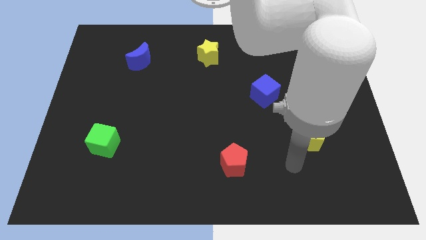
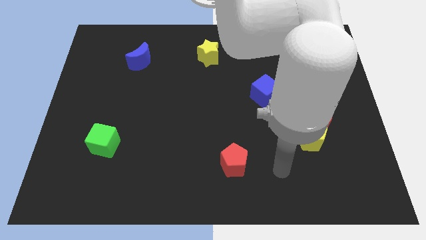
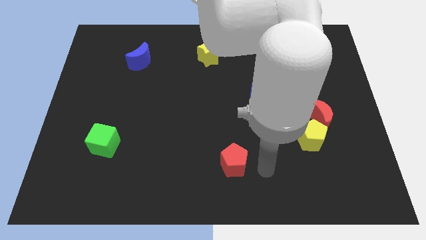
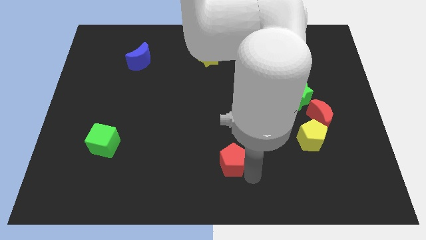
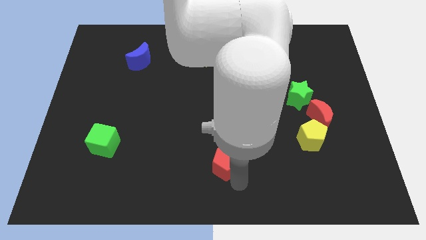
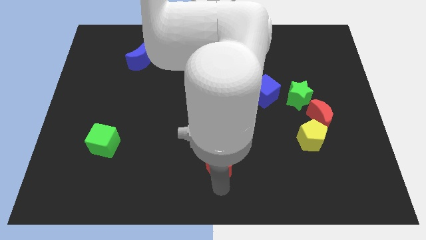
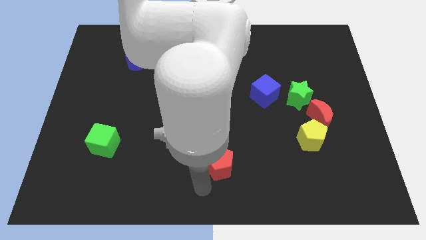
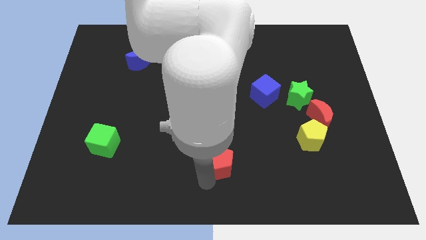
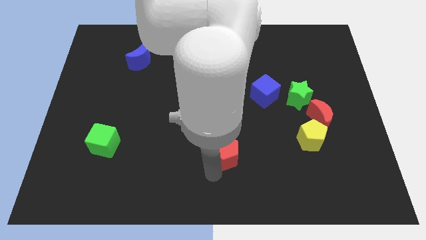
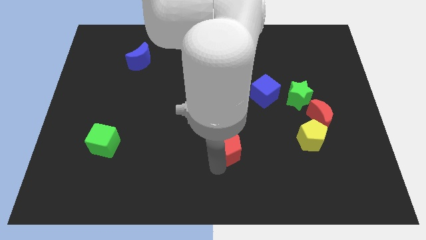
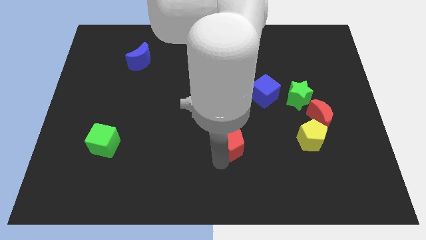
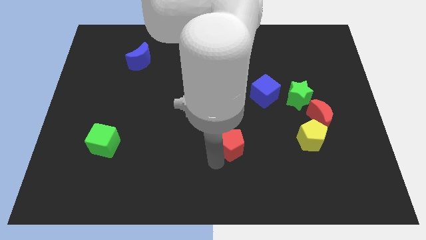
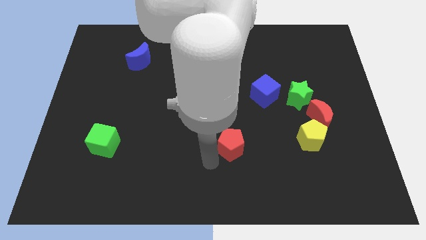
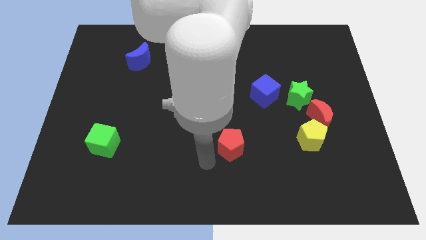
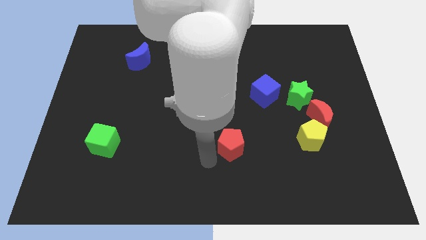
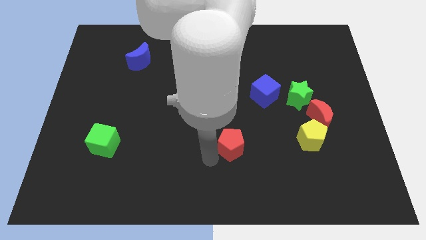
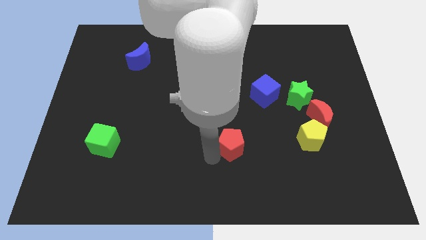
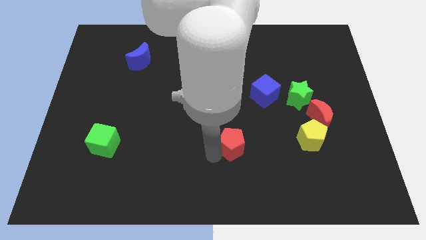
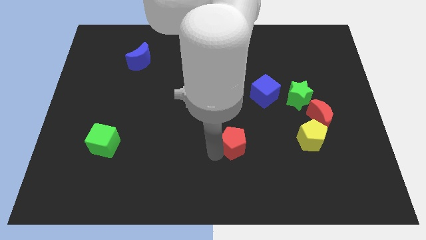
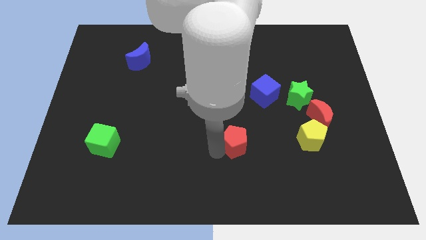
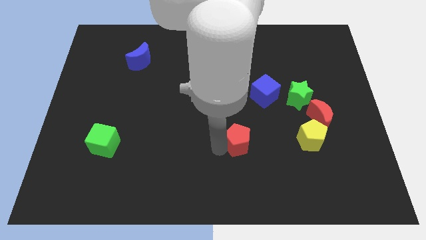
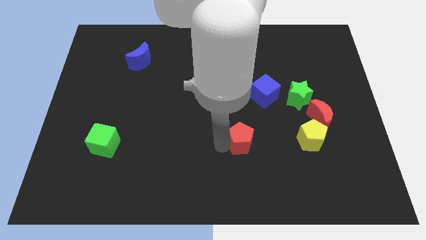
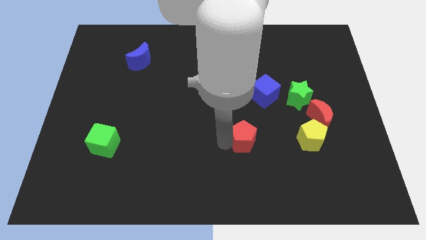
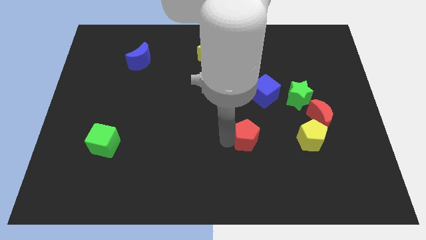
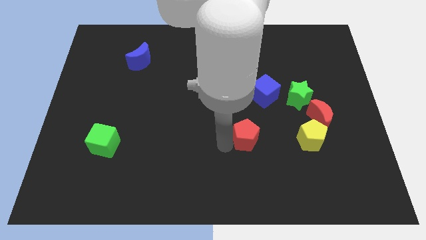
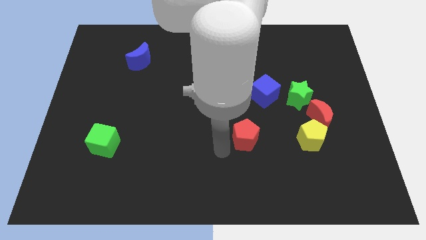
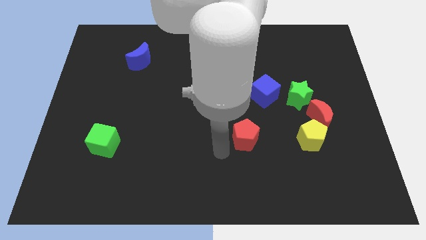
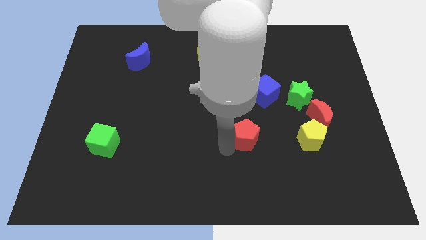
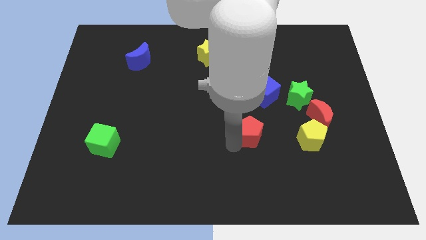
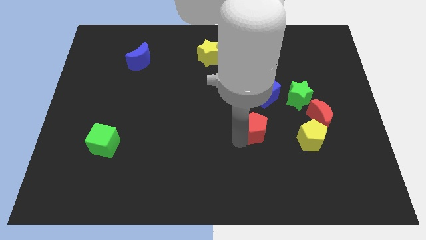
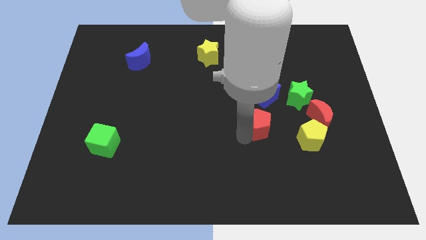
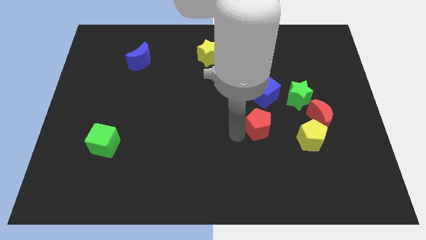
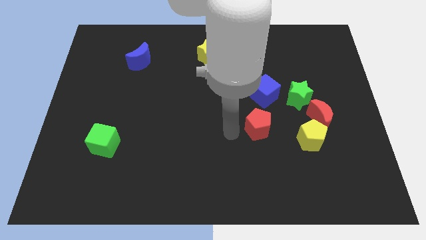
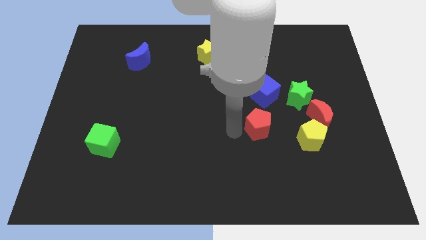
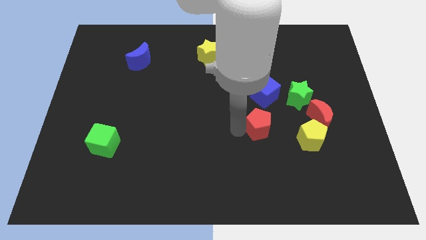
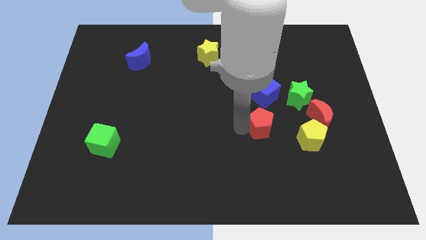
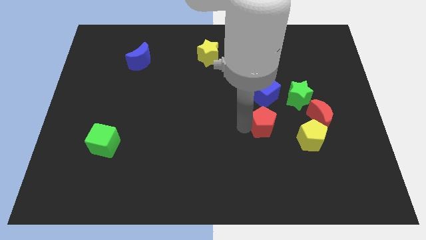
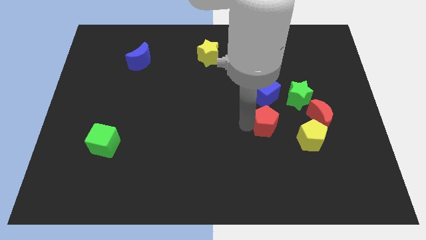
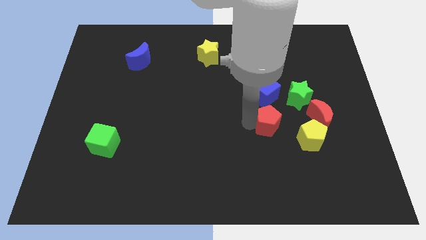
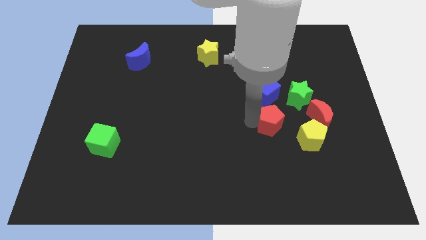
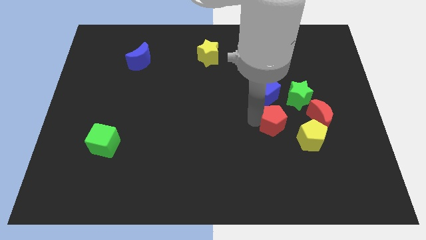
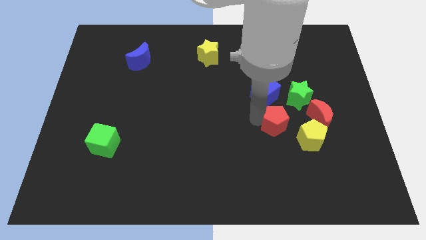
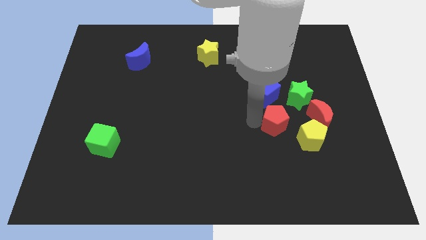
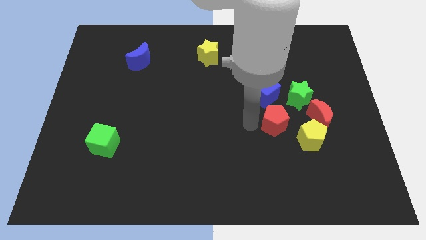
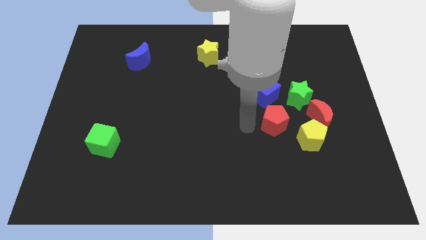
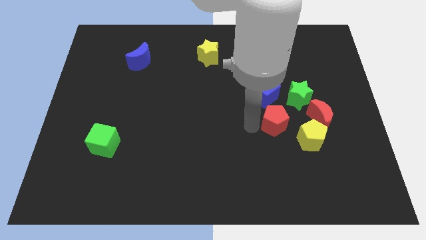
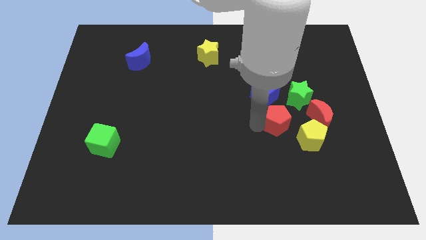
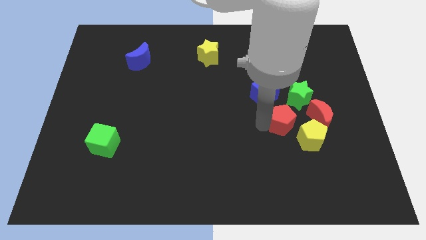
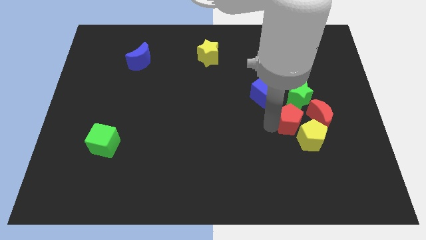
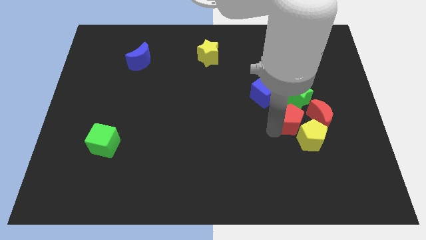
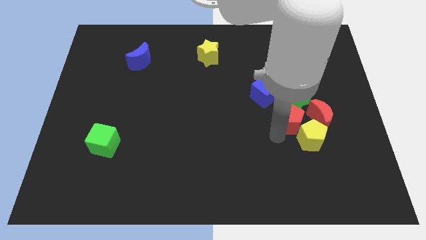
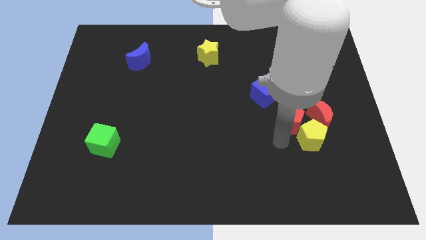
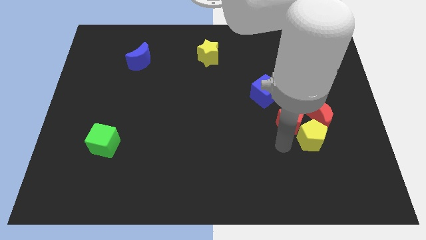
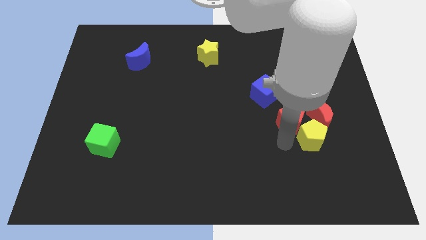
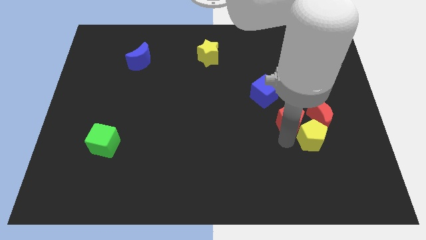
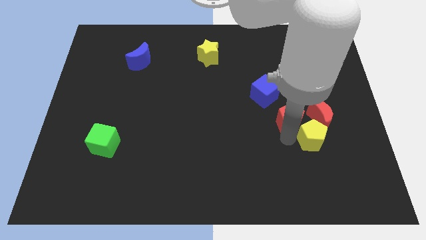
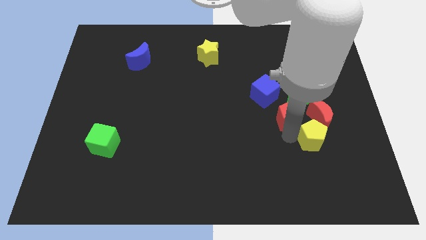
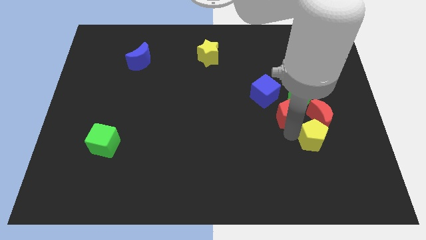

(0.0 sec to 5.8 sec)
push the red pentagon to the top left side of the red moon

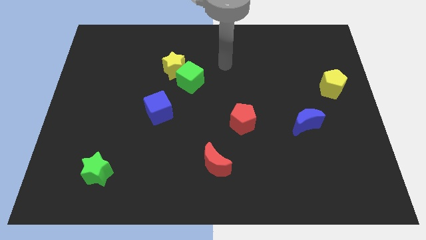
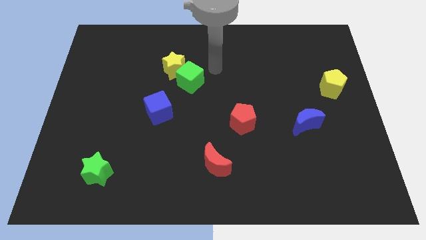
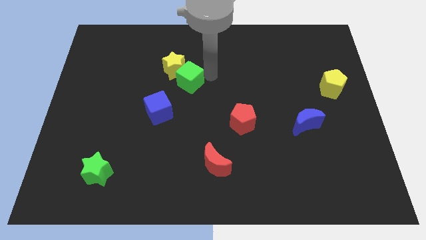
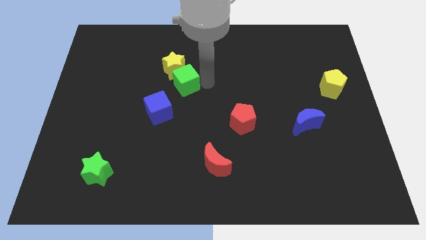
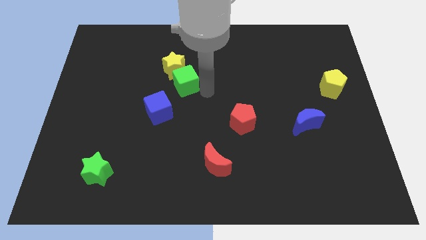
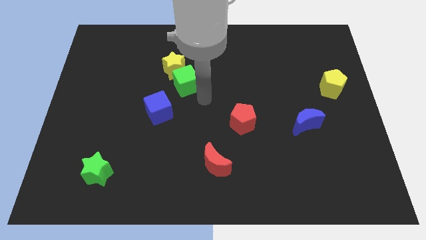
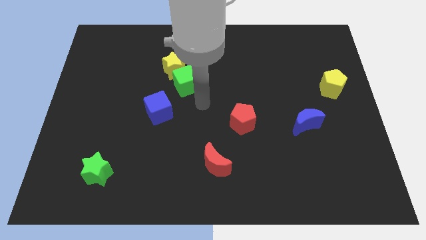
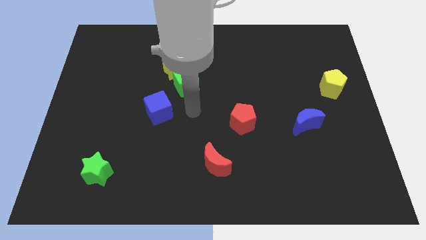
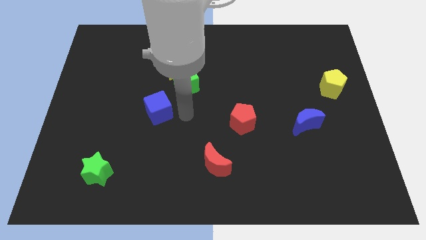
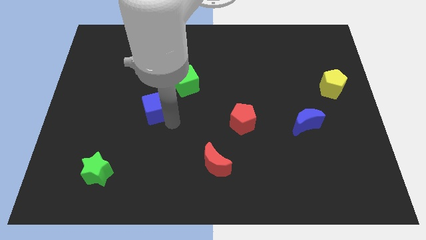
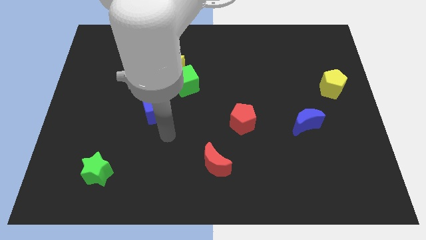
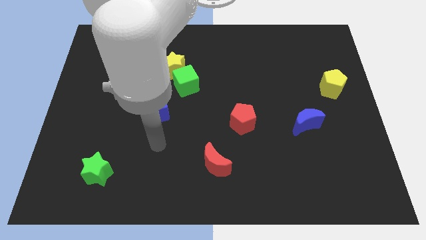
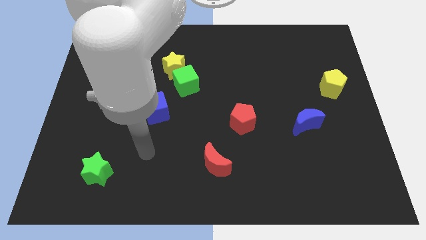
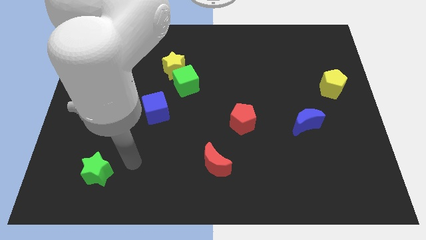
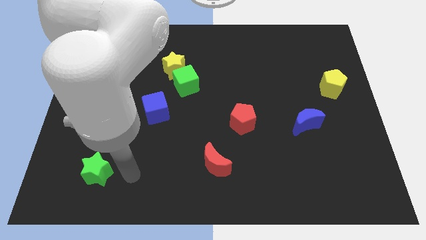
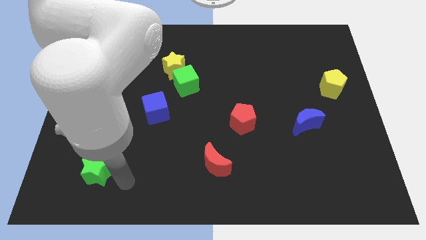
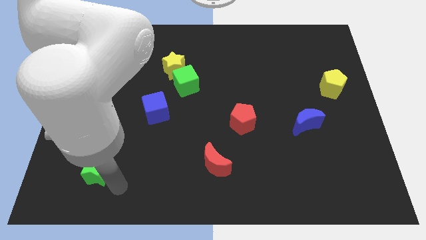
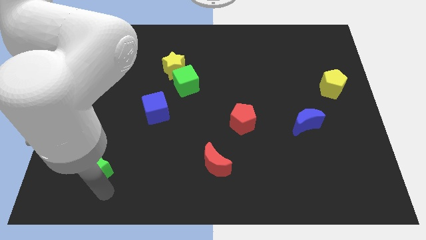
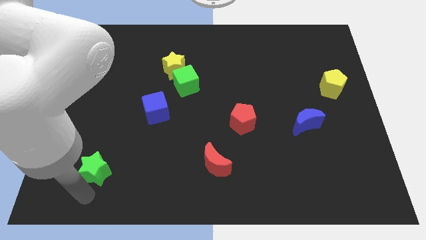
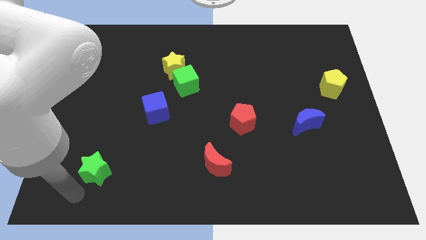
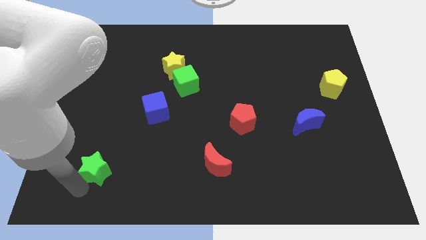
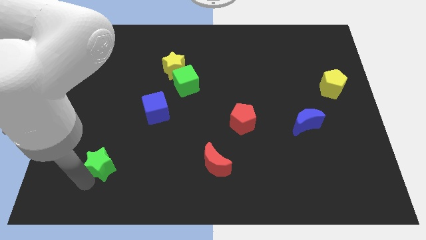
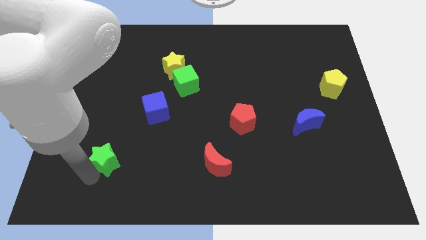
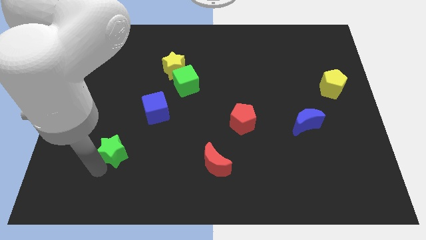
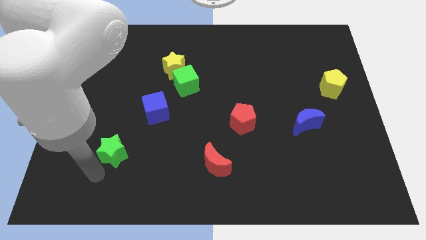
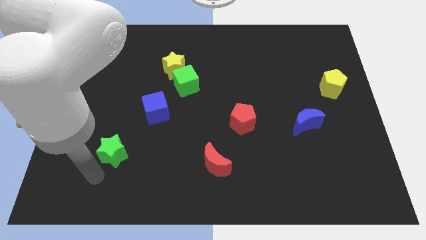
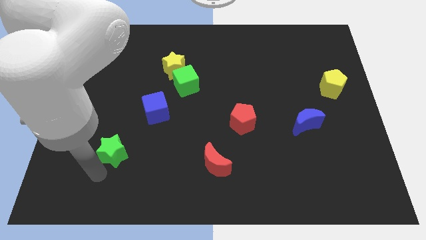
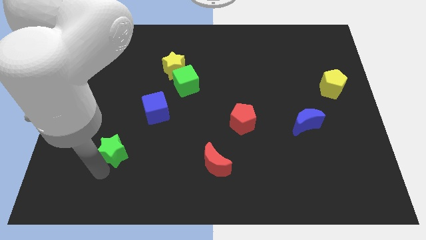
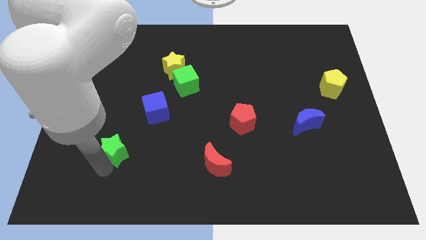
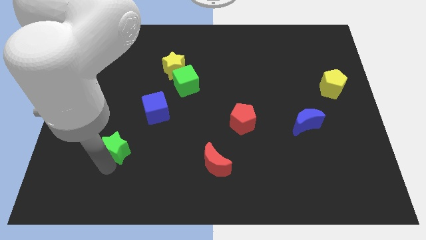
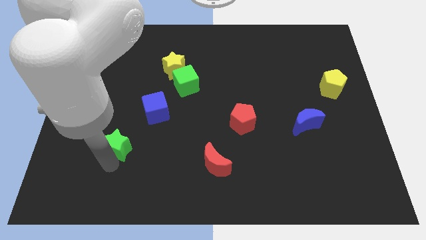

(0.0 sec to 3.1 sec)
put the green star to the bottom left side of the blue cube
